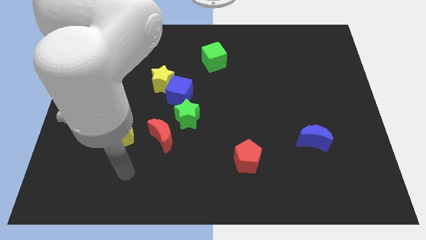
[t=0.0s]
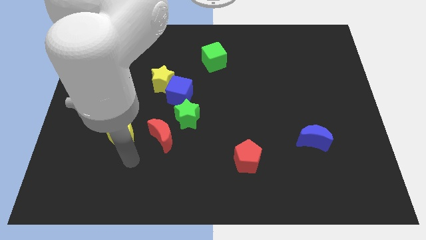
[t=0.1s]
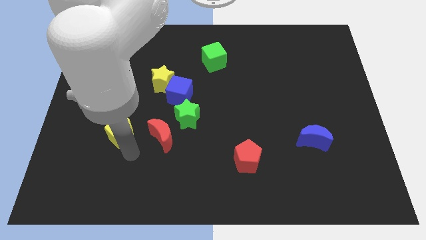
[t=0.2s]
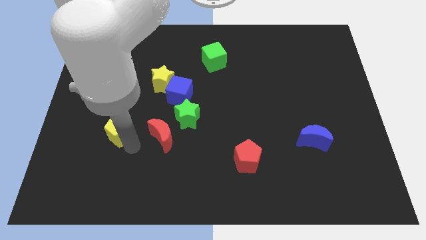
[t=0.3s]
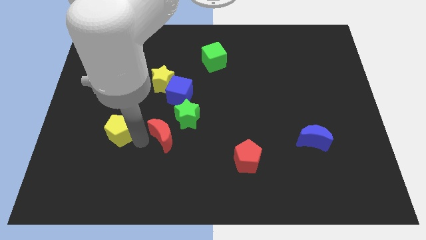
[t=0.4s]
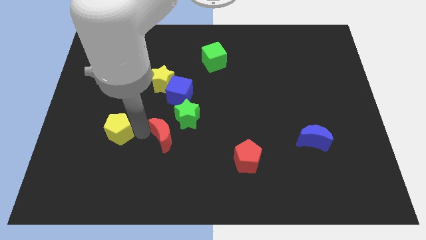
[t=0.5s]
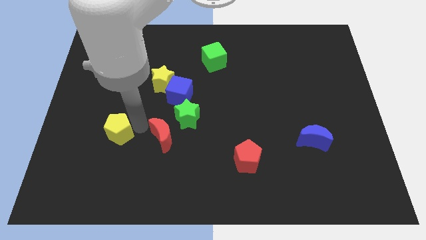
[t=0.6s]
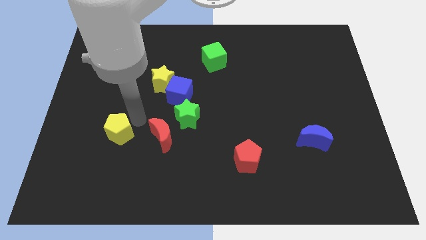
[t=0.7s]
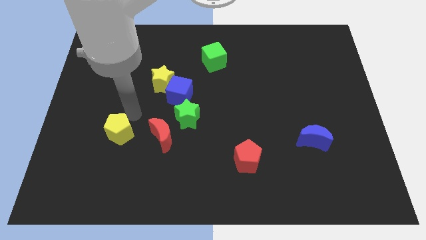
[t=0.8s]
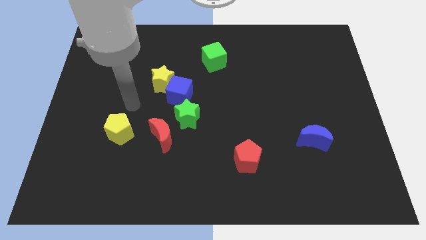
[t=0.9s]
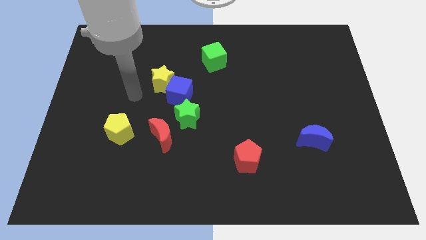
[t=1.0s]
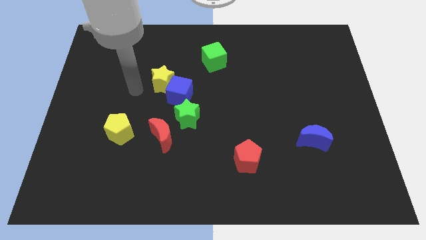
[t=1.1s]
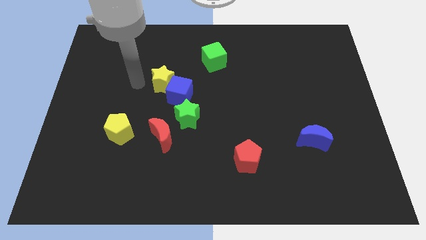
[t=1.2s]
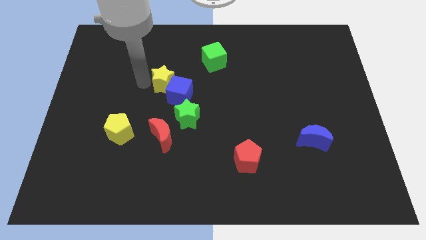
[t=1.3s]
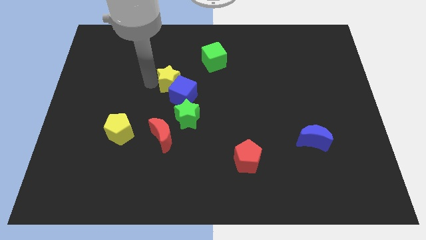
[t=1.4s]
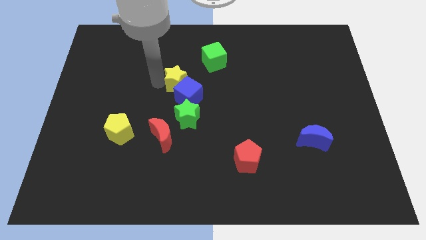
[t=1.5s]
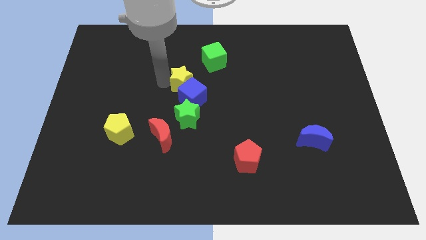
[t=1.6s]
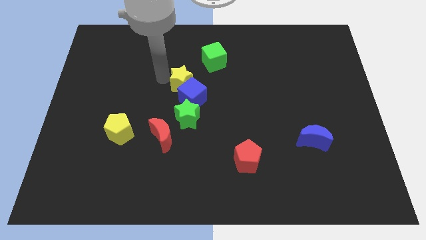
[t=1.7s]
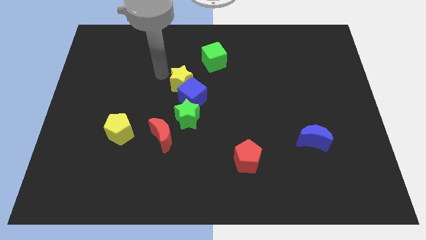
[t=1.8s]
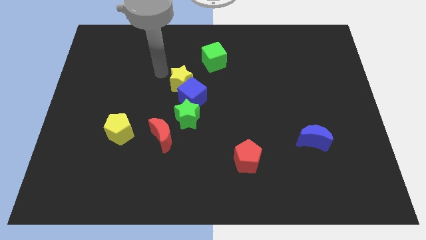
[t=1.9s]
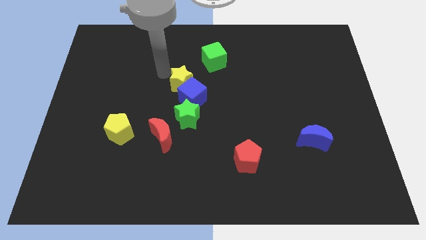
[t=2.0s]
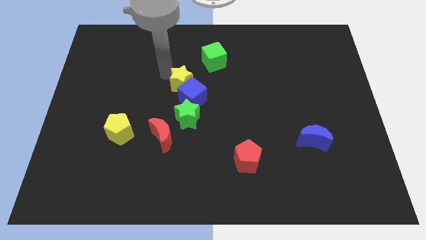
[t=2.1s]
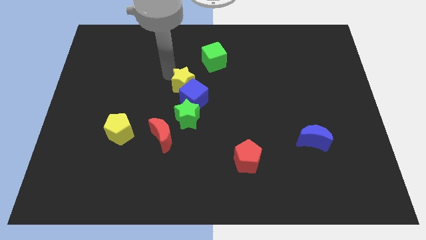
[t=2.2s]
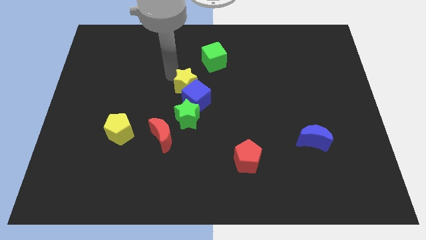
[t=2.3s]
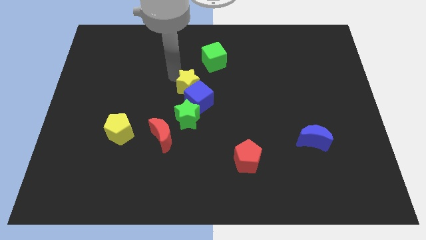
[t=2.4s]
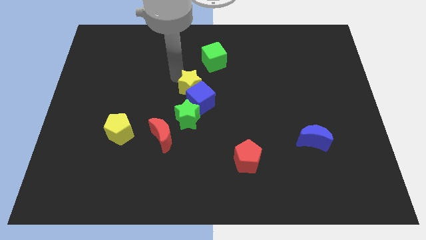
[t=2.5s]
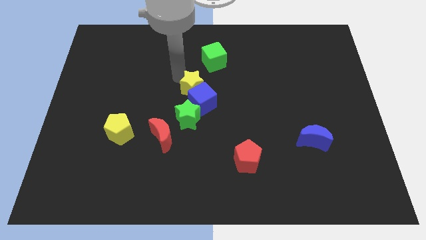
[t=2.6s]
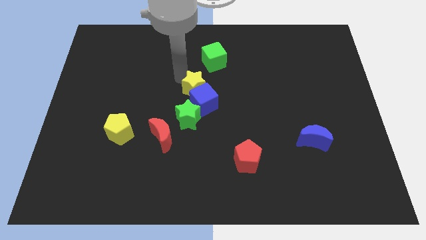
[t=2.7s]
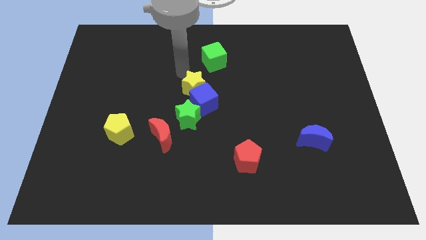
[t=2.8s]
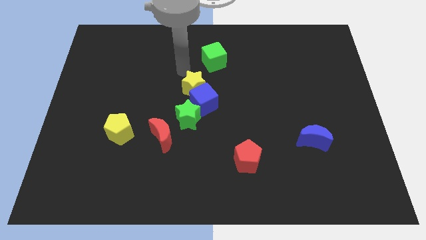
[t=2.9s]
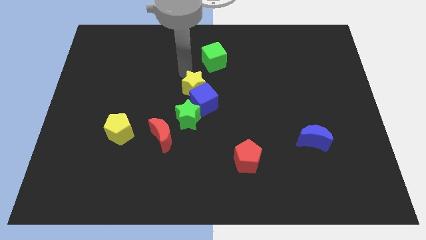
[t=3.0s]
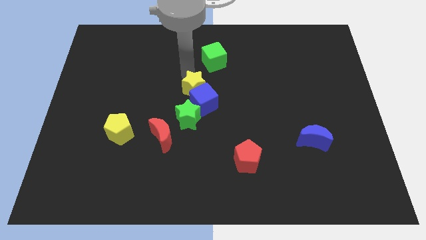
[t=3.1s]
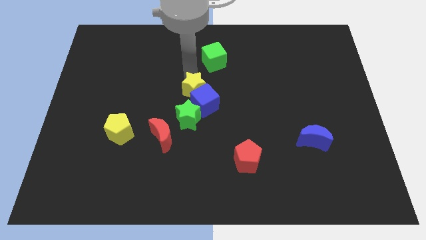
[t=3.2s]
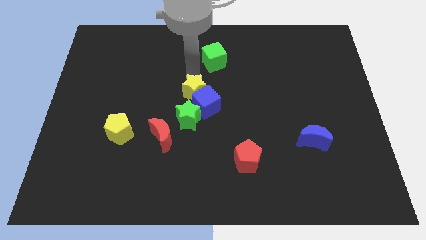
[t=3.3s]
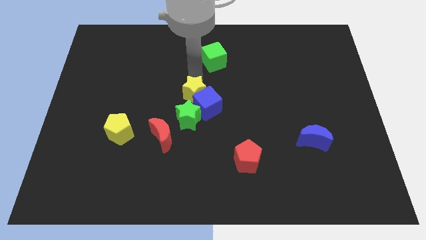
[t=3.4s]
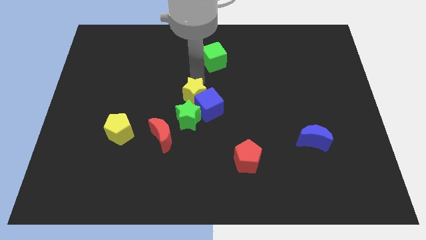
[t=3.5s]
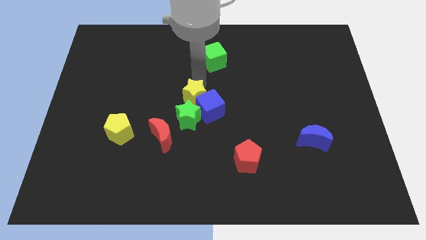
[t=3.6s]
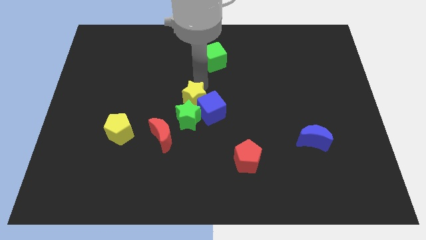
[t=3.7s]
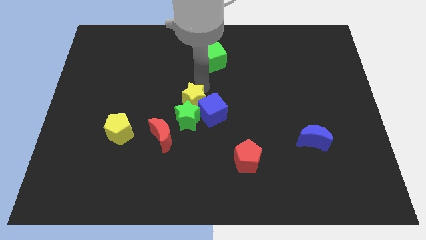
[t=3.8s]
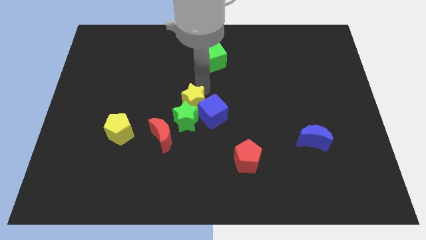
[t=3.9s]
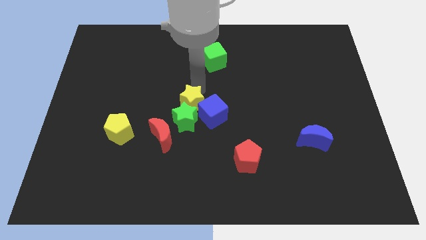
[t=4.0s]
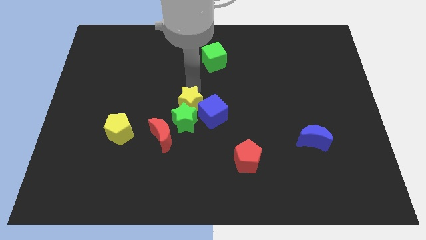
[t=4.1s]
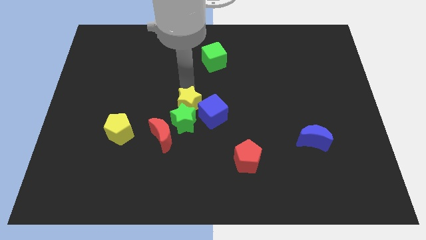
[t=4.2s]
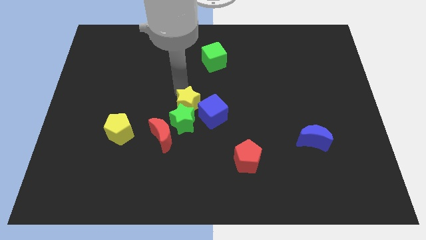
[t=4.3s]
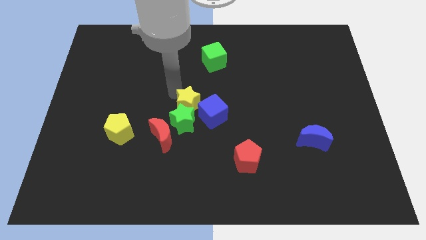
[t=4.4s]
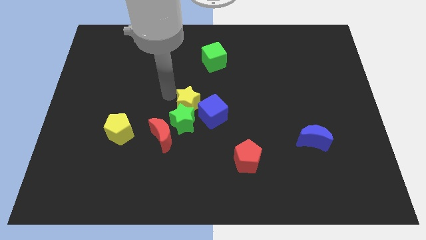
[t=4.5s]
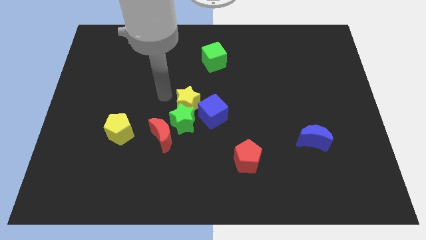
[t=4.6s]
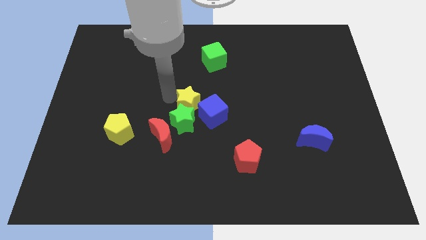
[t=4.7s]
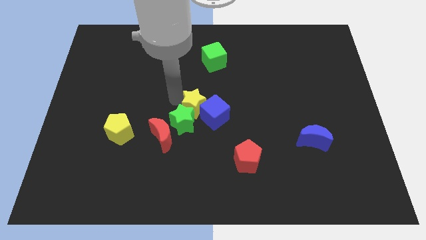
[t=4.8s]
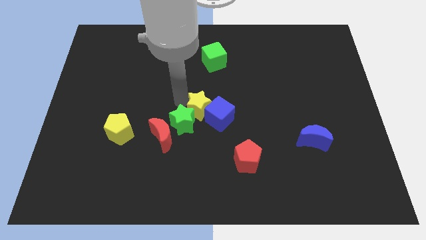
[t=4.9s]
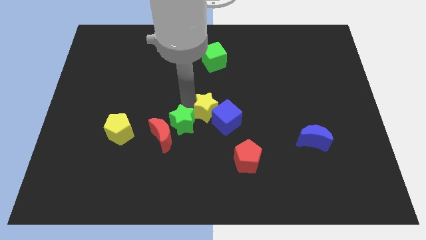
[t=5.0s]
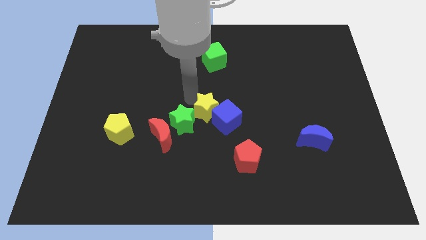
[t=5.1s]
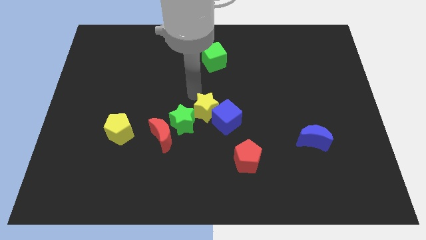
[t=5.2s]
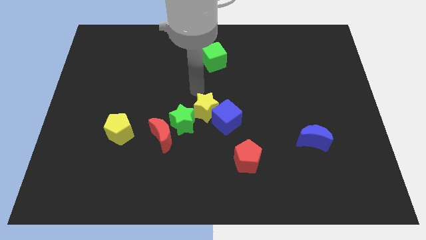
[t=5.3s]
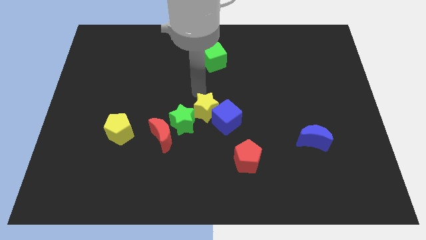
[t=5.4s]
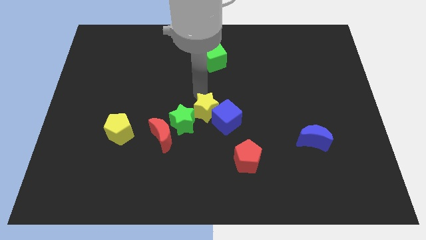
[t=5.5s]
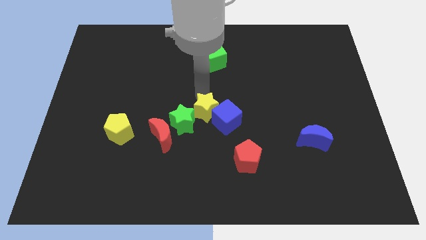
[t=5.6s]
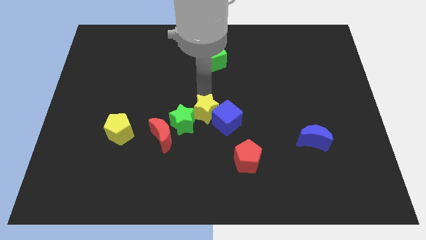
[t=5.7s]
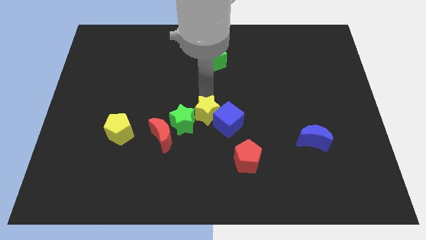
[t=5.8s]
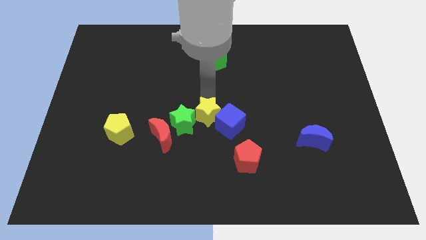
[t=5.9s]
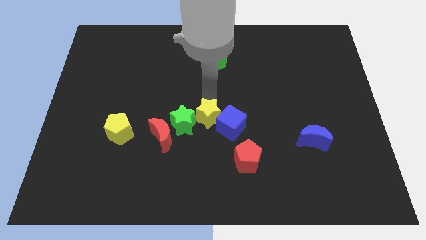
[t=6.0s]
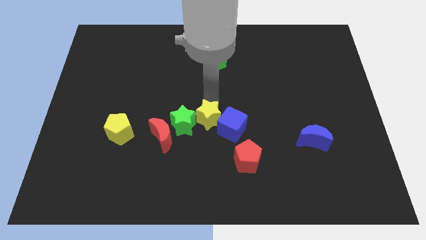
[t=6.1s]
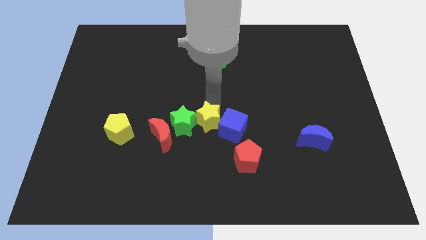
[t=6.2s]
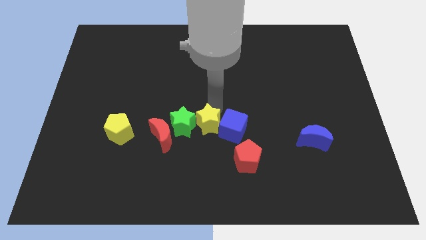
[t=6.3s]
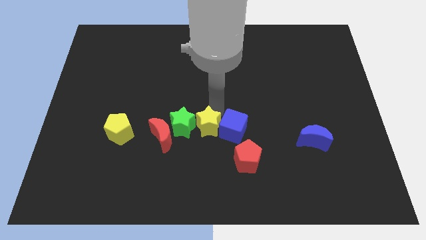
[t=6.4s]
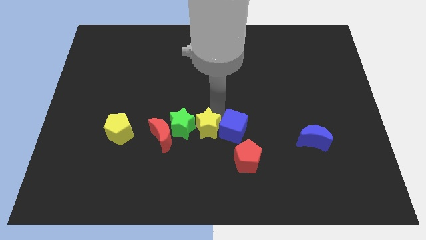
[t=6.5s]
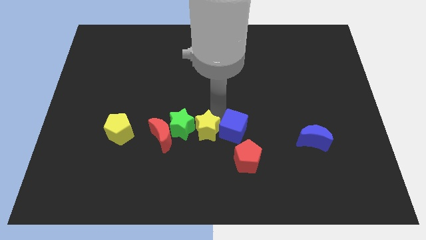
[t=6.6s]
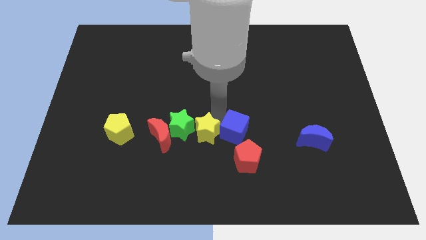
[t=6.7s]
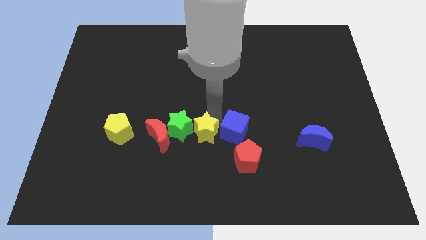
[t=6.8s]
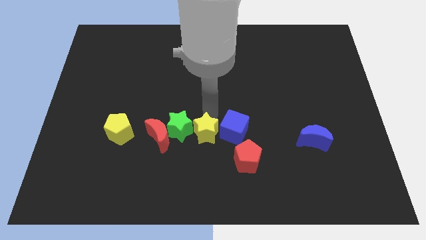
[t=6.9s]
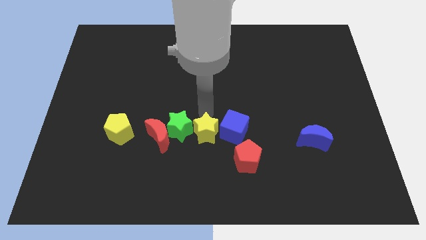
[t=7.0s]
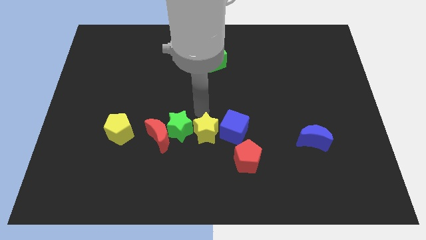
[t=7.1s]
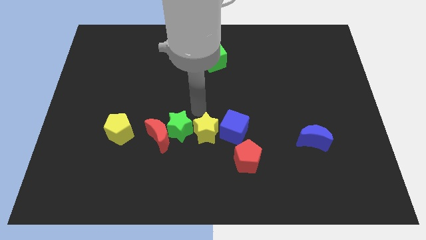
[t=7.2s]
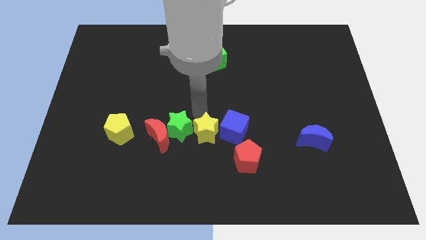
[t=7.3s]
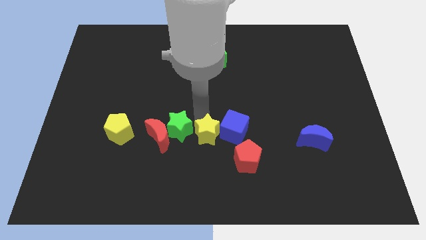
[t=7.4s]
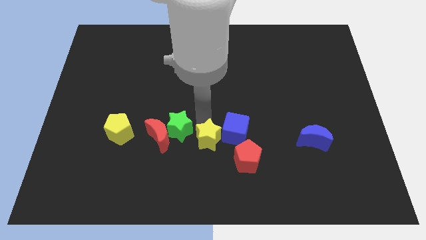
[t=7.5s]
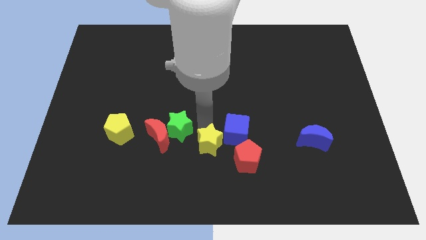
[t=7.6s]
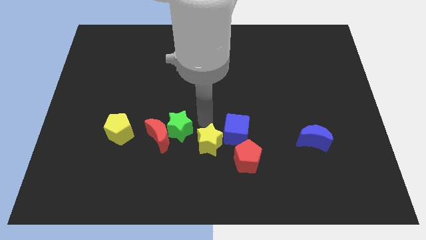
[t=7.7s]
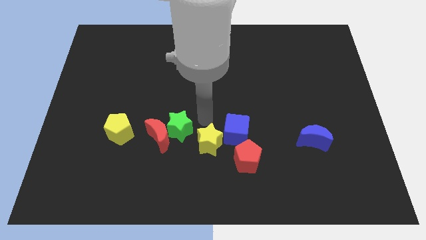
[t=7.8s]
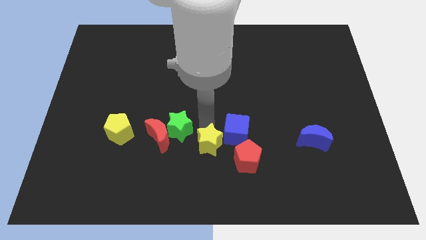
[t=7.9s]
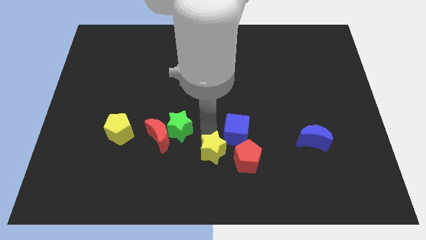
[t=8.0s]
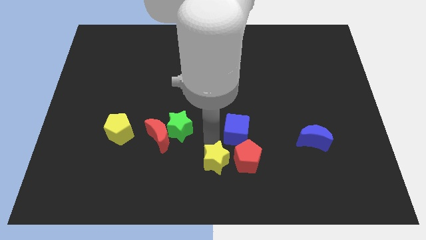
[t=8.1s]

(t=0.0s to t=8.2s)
push the yellow star to the bottom side
